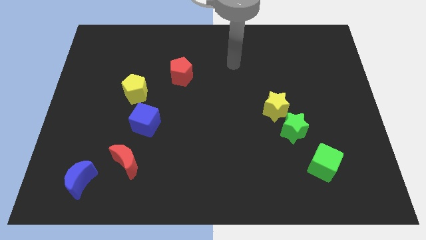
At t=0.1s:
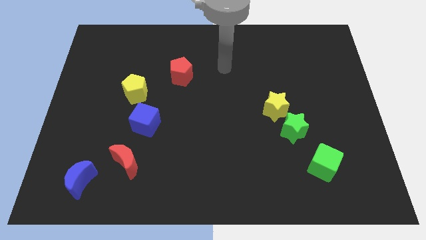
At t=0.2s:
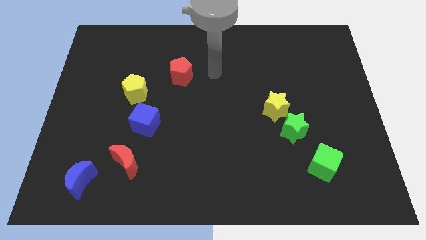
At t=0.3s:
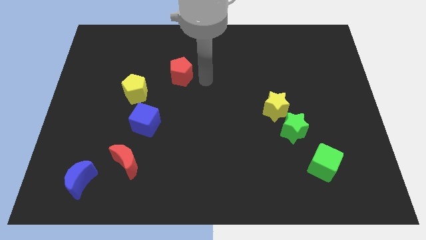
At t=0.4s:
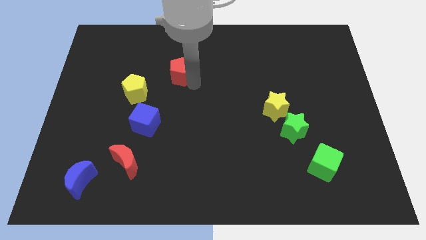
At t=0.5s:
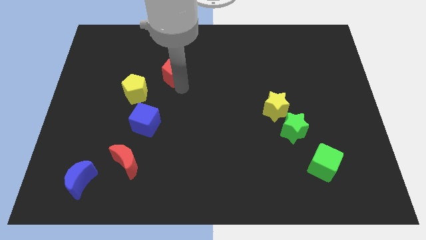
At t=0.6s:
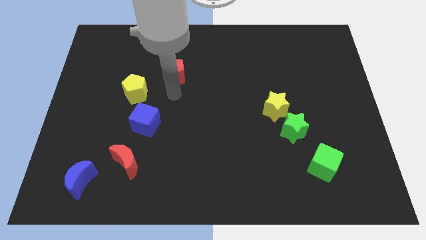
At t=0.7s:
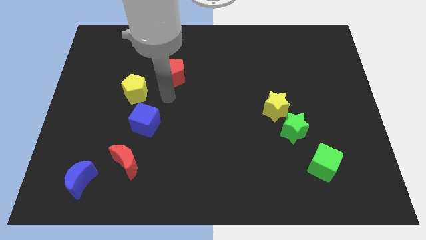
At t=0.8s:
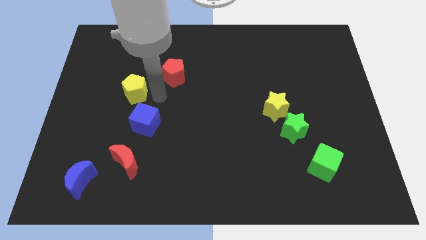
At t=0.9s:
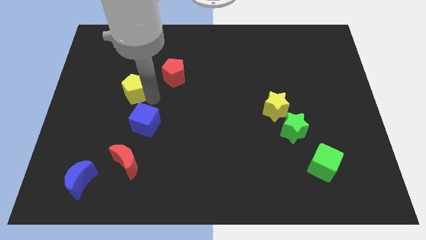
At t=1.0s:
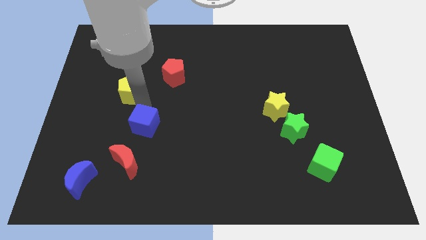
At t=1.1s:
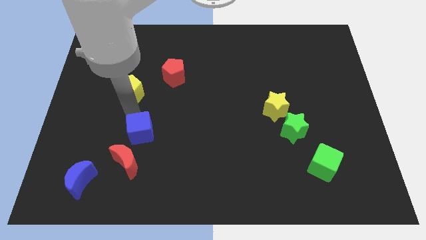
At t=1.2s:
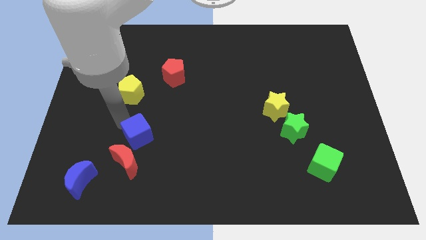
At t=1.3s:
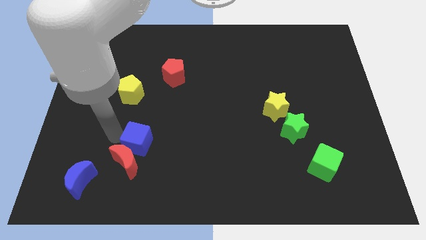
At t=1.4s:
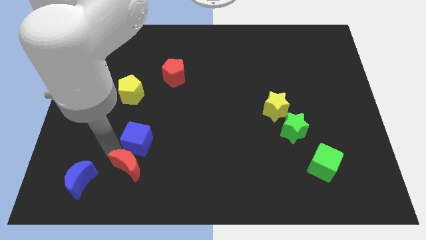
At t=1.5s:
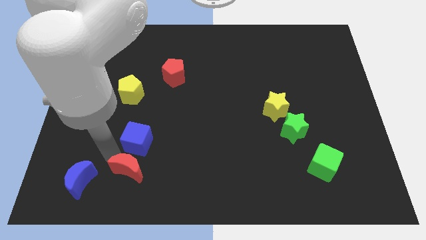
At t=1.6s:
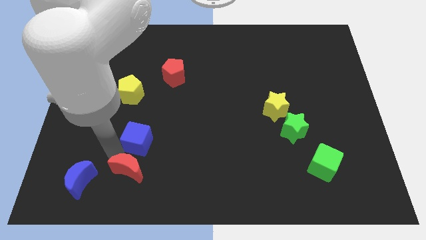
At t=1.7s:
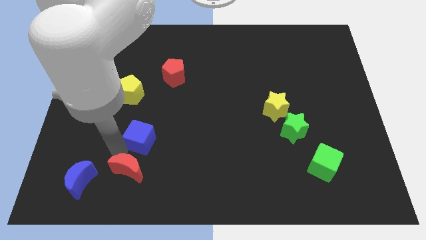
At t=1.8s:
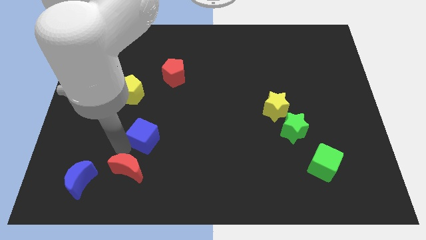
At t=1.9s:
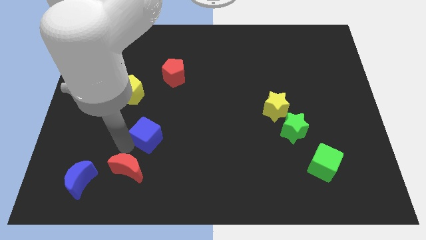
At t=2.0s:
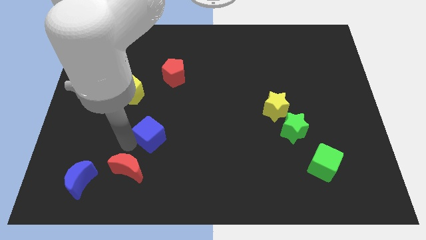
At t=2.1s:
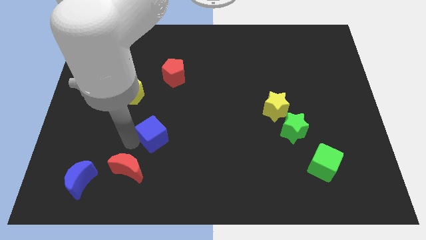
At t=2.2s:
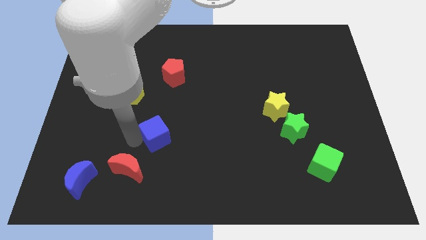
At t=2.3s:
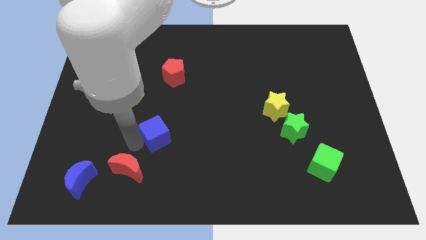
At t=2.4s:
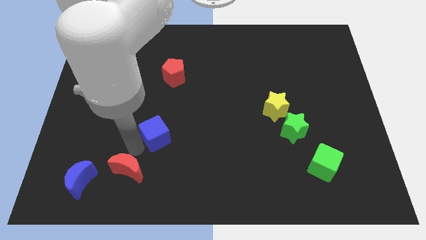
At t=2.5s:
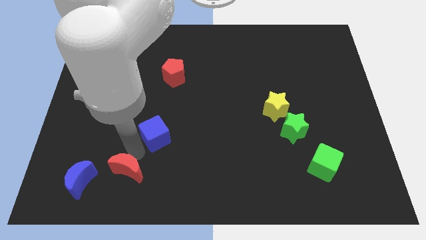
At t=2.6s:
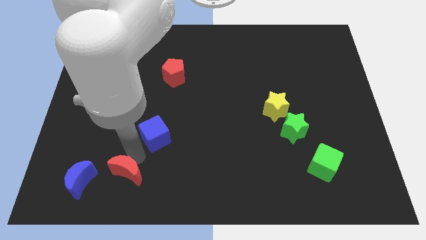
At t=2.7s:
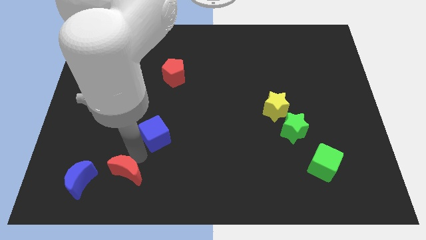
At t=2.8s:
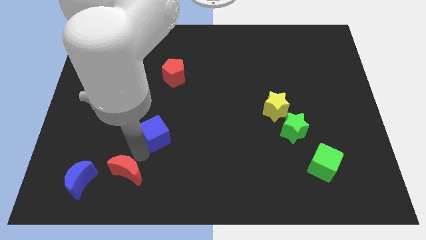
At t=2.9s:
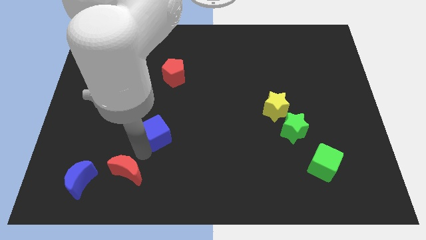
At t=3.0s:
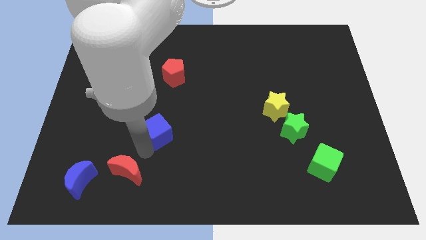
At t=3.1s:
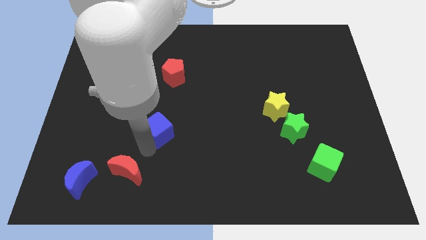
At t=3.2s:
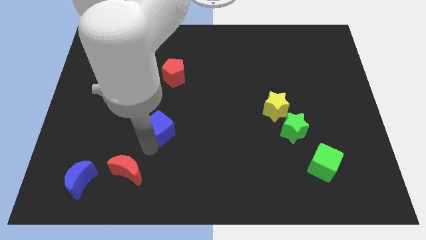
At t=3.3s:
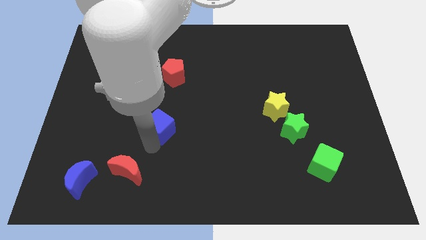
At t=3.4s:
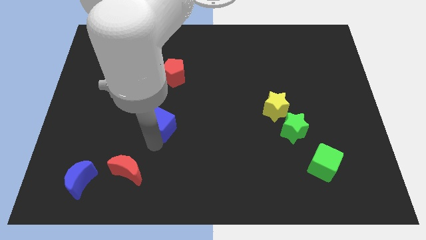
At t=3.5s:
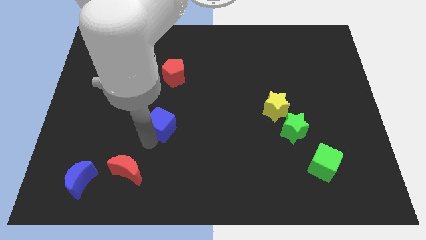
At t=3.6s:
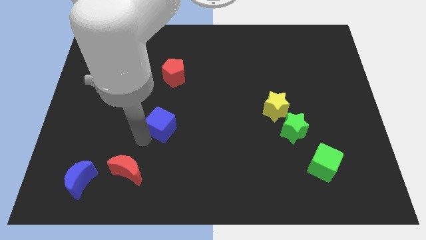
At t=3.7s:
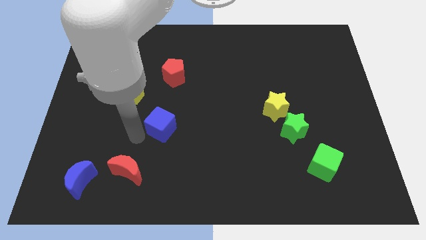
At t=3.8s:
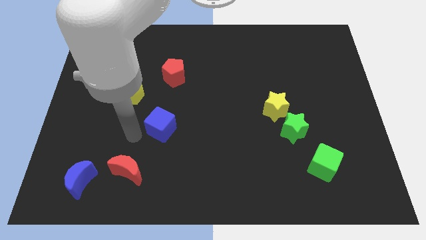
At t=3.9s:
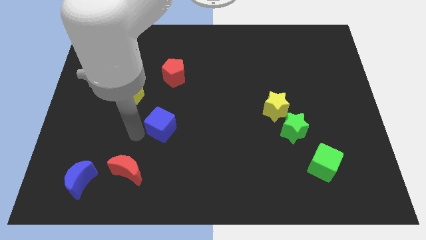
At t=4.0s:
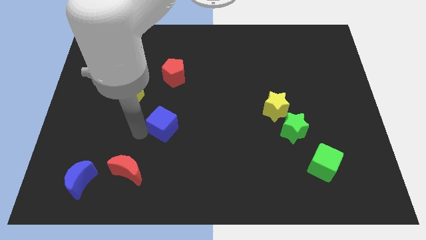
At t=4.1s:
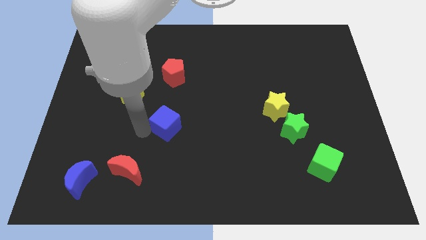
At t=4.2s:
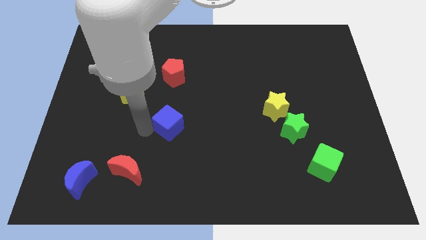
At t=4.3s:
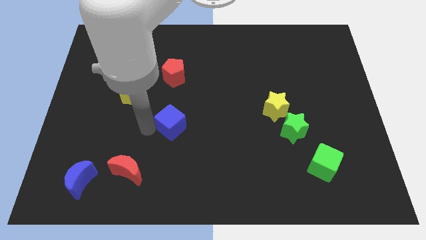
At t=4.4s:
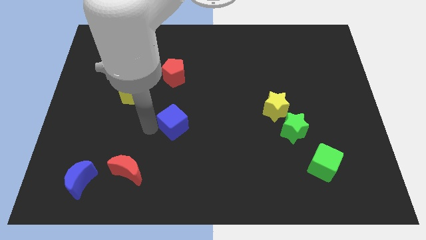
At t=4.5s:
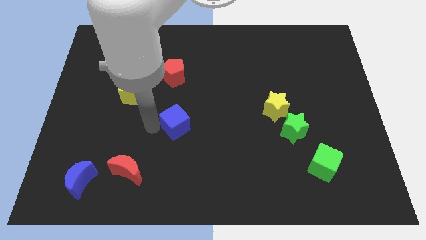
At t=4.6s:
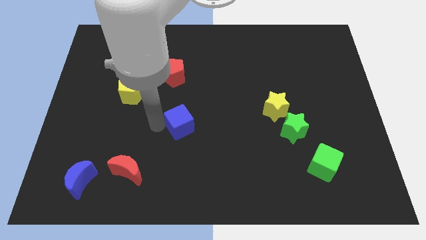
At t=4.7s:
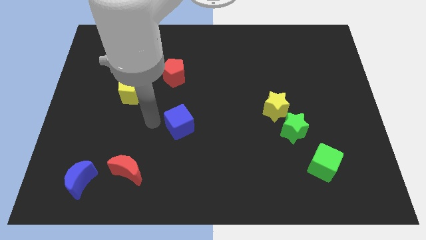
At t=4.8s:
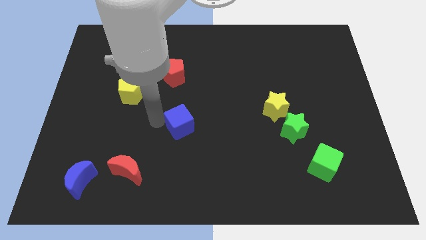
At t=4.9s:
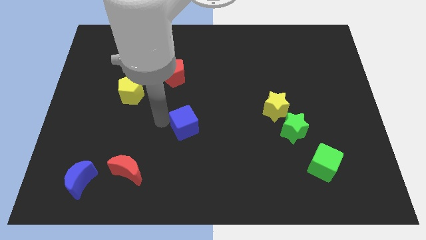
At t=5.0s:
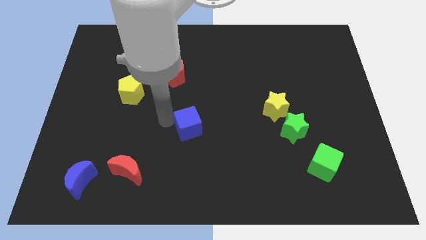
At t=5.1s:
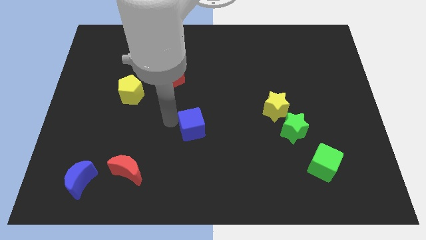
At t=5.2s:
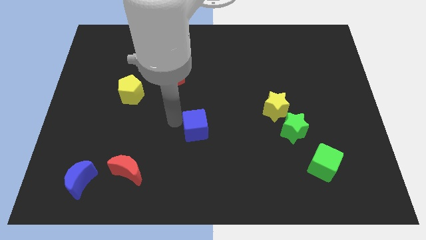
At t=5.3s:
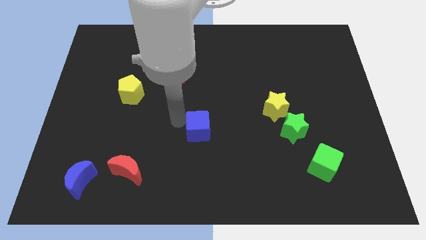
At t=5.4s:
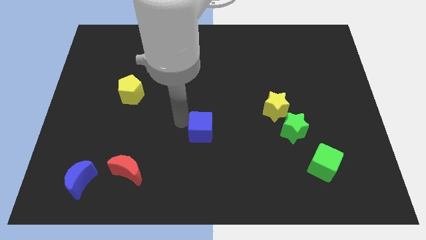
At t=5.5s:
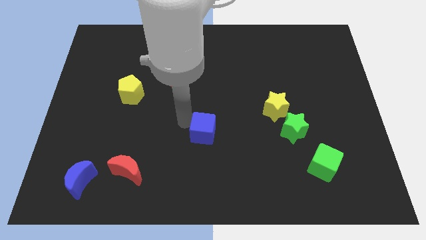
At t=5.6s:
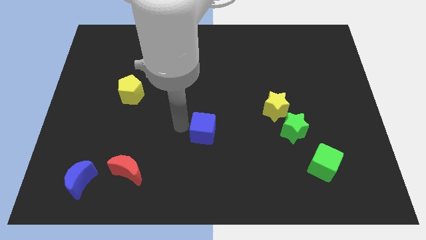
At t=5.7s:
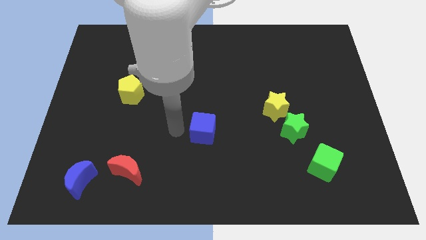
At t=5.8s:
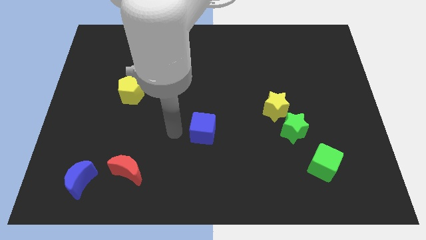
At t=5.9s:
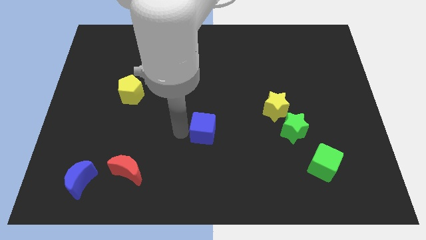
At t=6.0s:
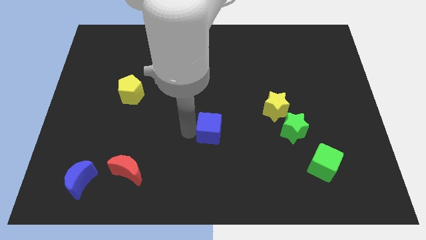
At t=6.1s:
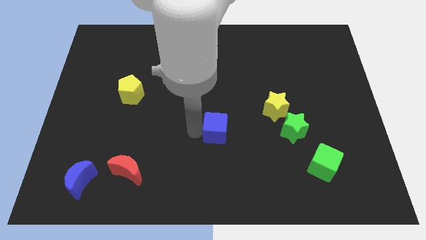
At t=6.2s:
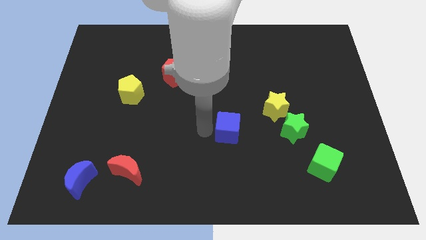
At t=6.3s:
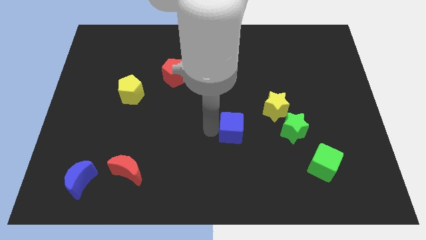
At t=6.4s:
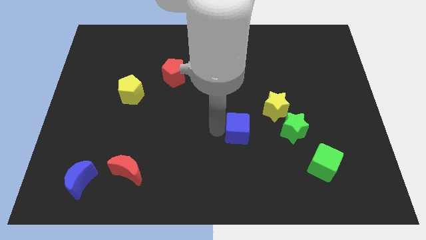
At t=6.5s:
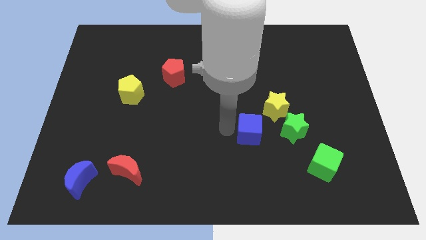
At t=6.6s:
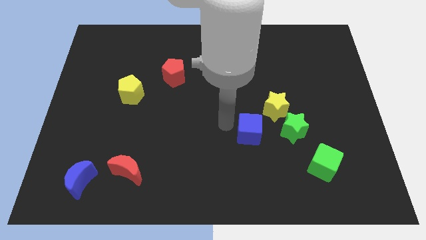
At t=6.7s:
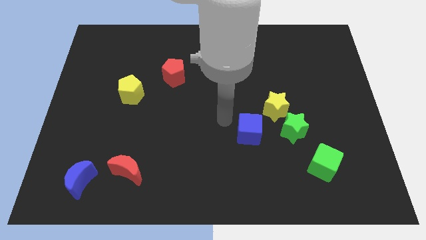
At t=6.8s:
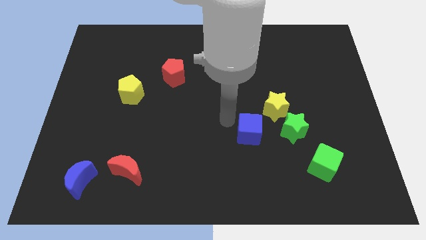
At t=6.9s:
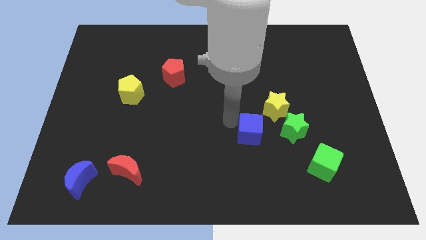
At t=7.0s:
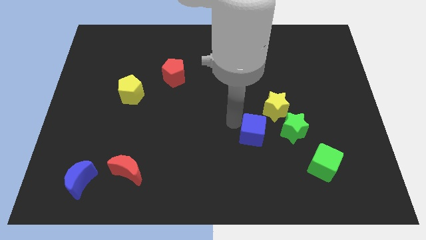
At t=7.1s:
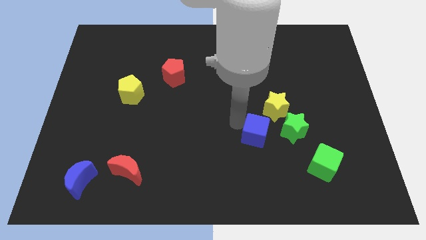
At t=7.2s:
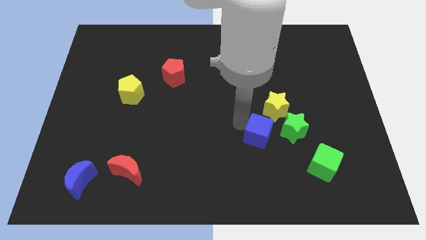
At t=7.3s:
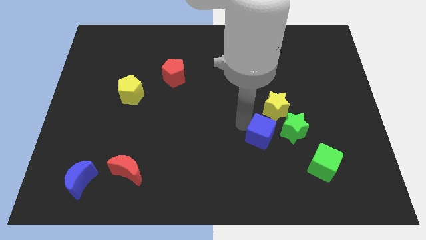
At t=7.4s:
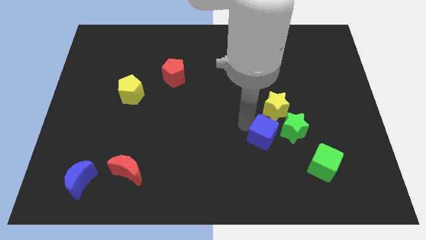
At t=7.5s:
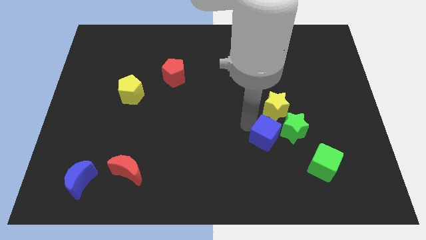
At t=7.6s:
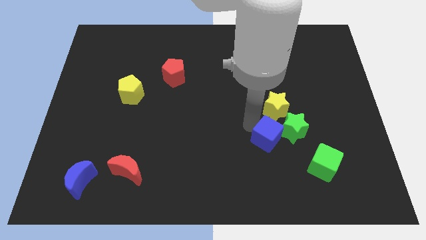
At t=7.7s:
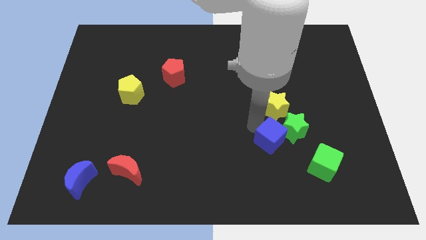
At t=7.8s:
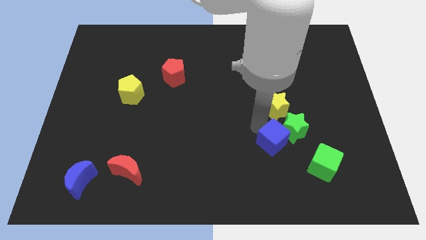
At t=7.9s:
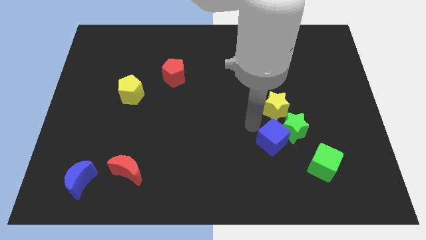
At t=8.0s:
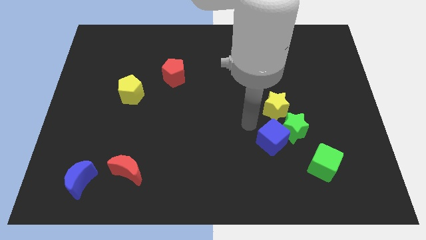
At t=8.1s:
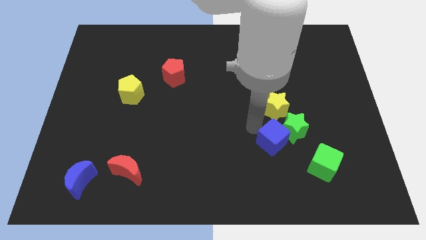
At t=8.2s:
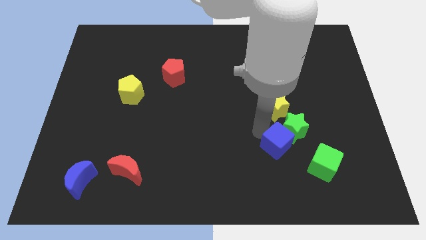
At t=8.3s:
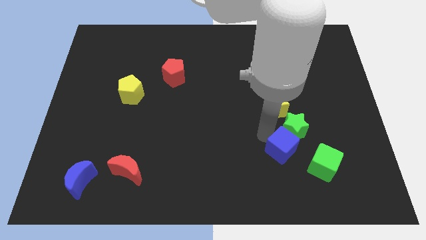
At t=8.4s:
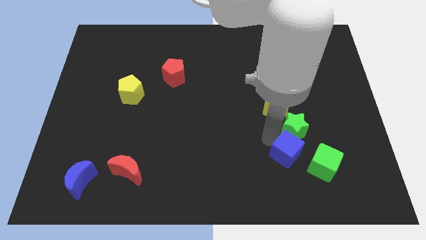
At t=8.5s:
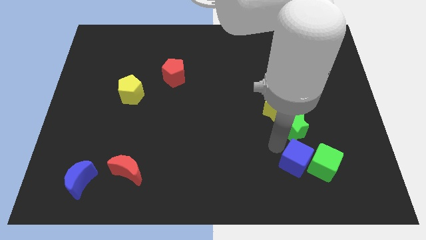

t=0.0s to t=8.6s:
slide the blue cube close to the green cube
